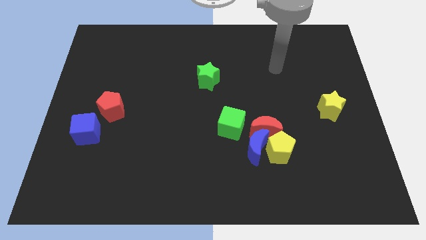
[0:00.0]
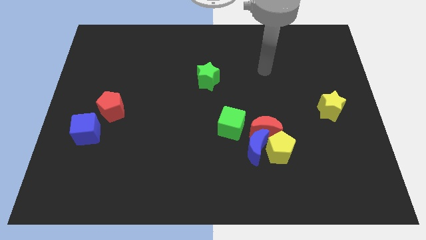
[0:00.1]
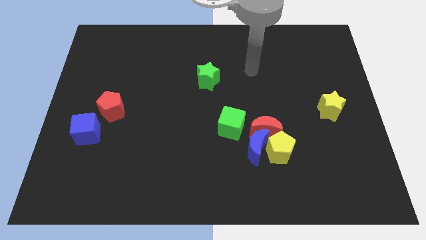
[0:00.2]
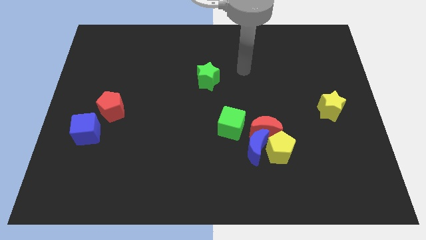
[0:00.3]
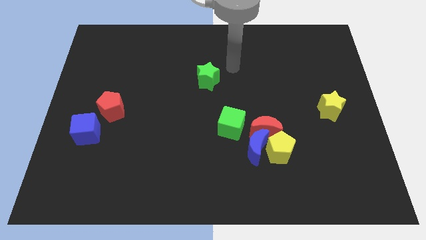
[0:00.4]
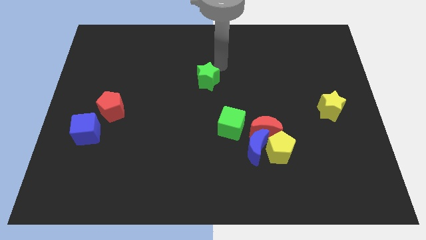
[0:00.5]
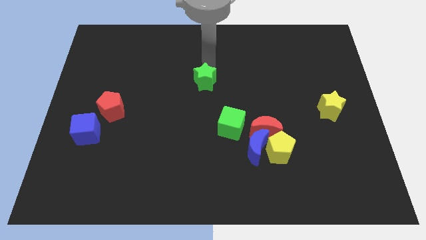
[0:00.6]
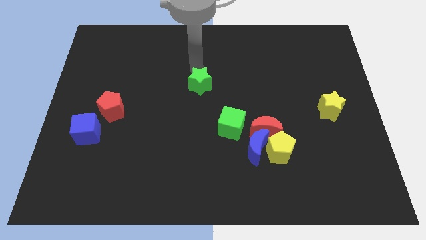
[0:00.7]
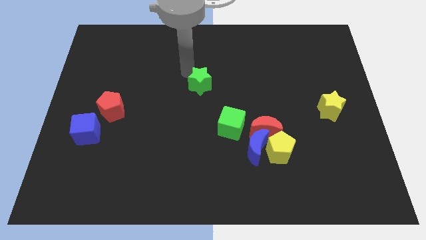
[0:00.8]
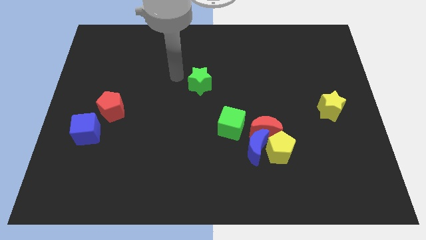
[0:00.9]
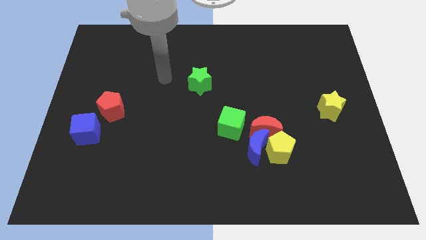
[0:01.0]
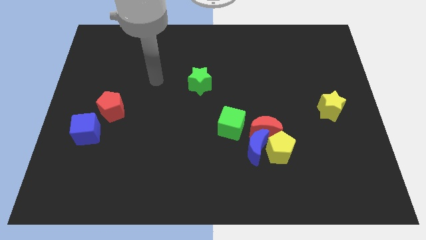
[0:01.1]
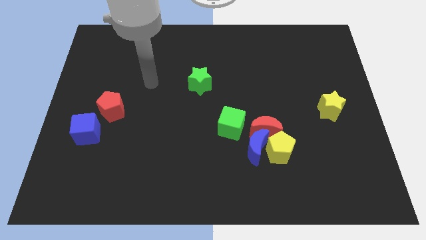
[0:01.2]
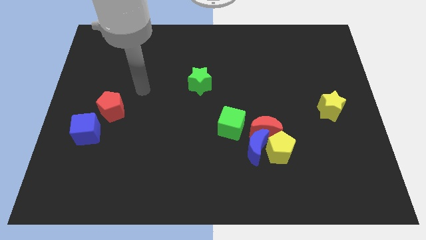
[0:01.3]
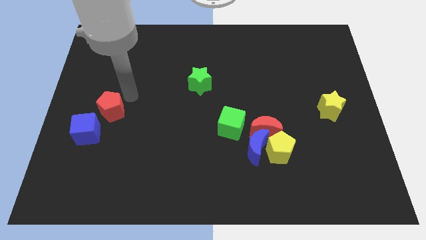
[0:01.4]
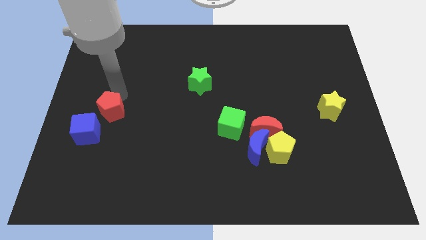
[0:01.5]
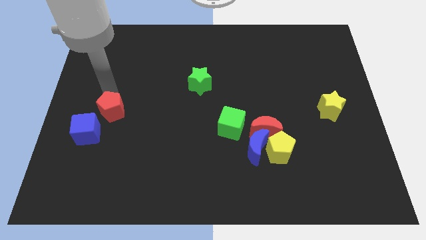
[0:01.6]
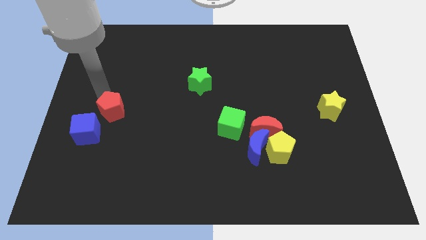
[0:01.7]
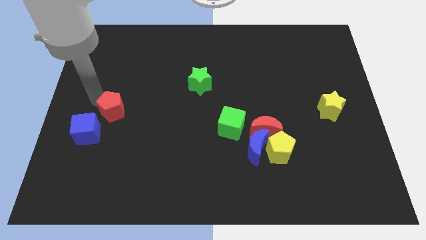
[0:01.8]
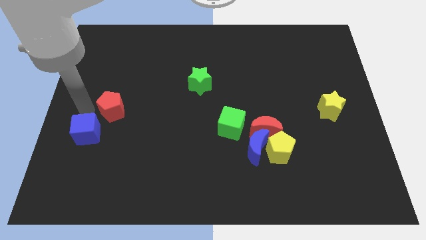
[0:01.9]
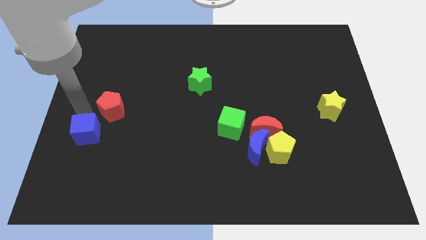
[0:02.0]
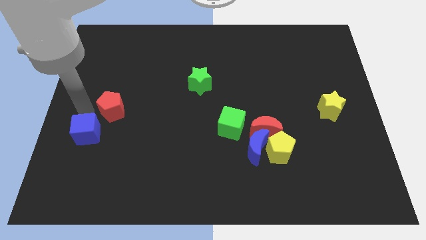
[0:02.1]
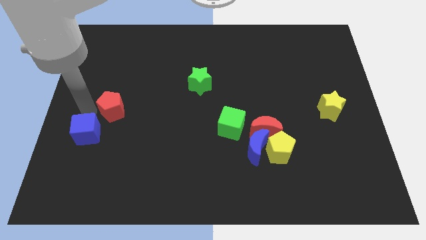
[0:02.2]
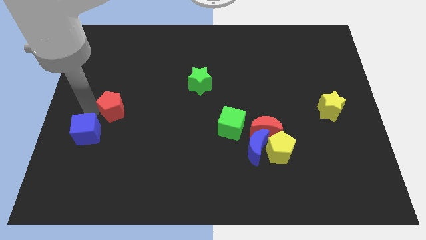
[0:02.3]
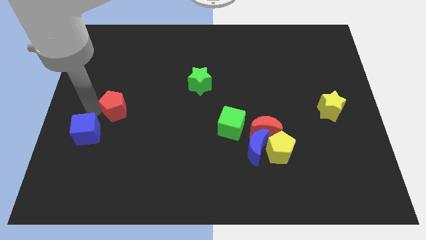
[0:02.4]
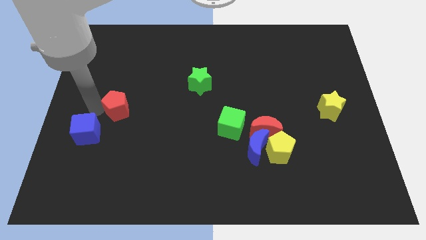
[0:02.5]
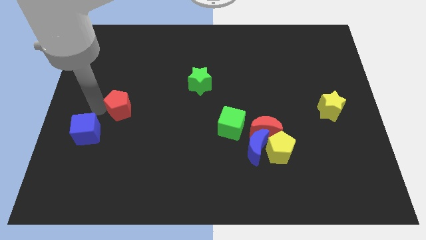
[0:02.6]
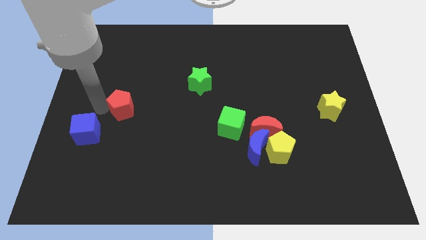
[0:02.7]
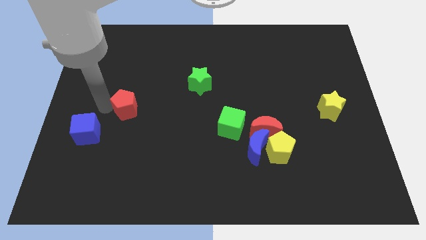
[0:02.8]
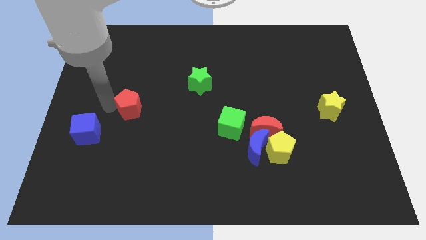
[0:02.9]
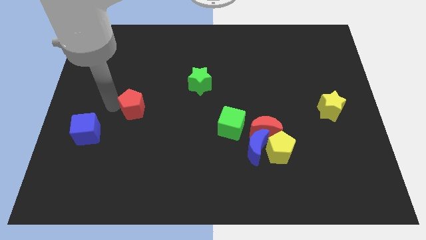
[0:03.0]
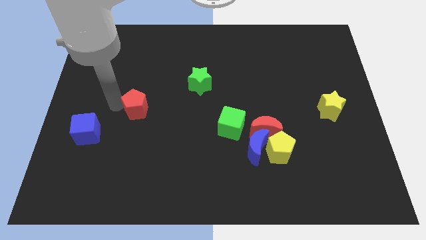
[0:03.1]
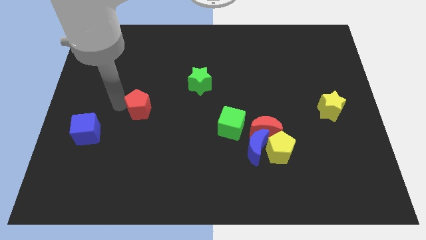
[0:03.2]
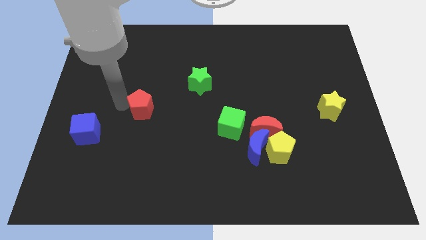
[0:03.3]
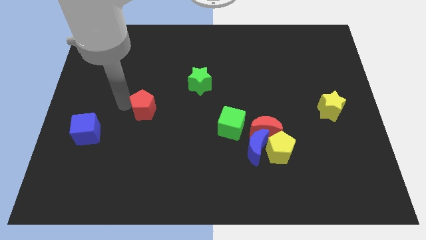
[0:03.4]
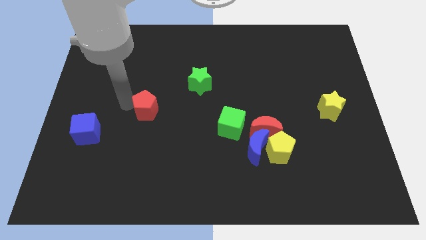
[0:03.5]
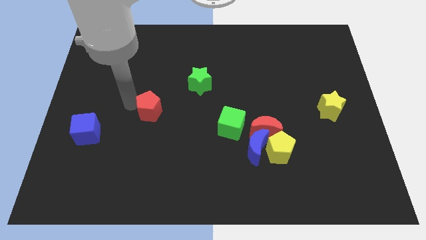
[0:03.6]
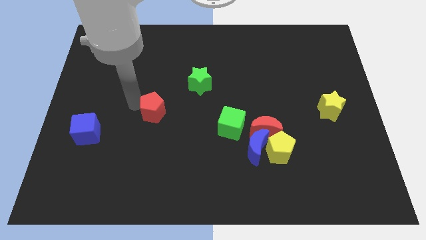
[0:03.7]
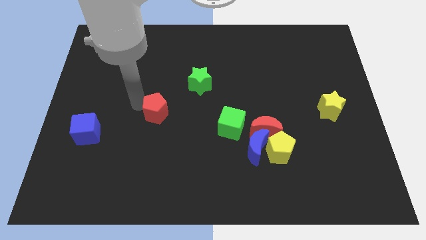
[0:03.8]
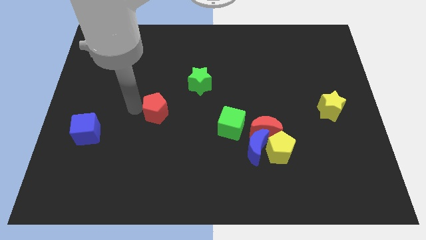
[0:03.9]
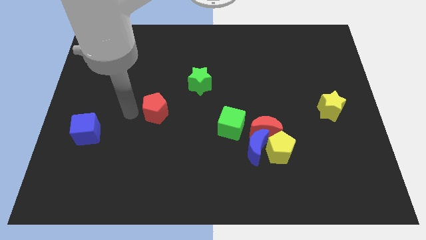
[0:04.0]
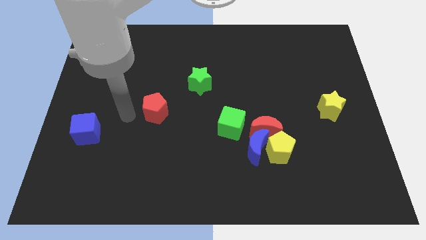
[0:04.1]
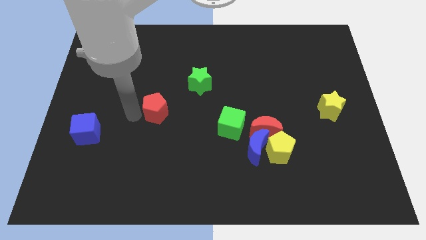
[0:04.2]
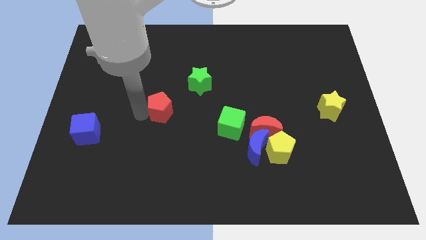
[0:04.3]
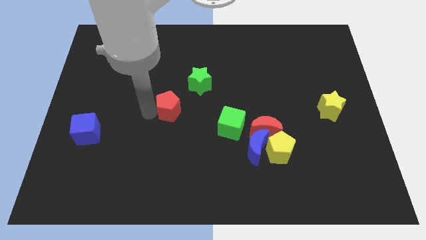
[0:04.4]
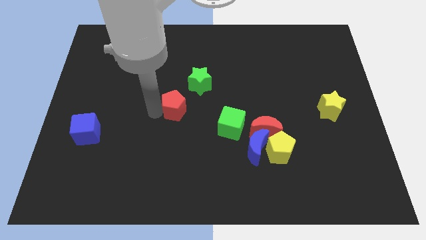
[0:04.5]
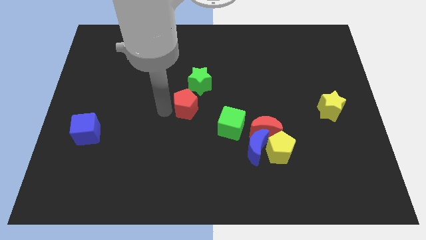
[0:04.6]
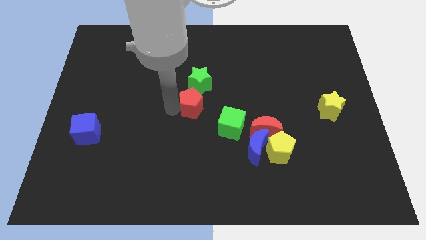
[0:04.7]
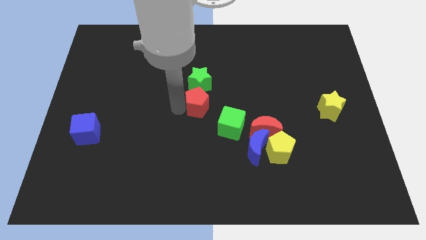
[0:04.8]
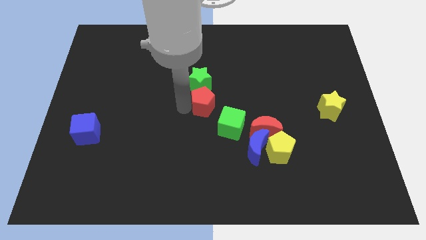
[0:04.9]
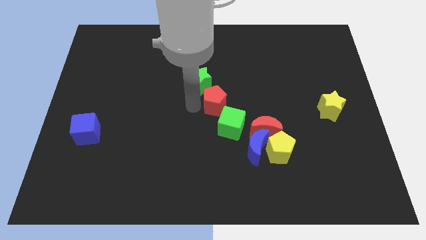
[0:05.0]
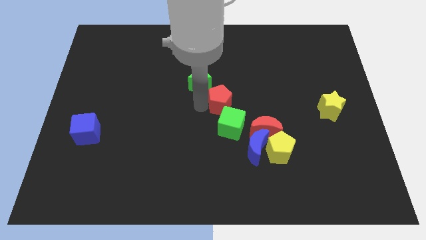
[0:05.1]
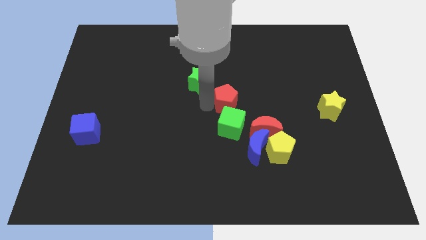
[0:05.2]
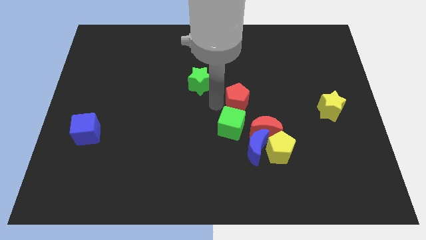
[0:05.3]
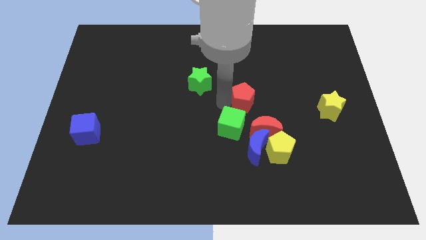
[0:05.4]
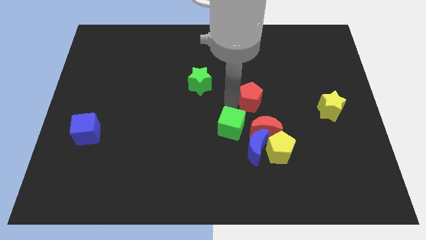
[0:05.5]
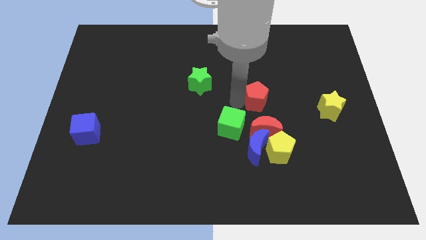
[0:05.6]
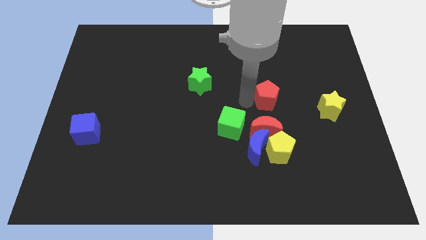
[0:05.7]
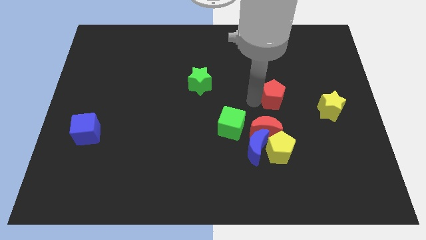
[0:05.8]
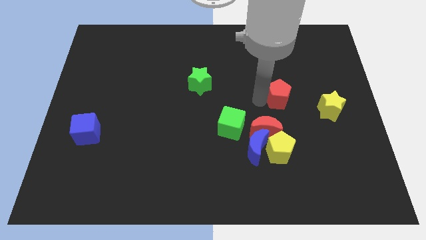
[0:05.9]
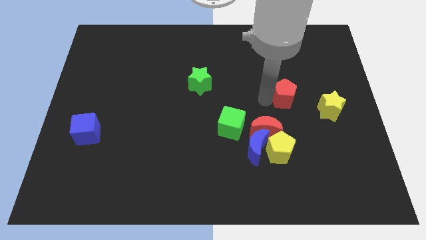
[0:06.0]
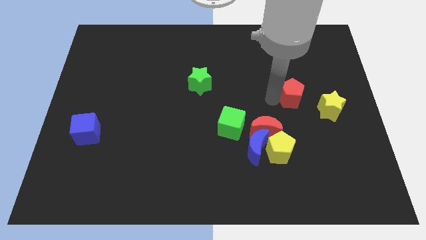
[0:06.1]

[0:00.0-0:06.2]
slide the red pentagon to the top left of the yellow star

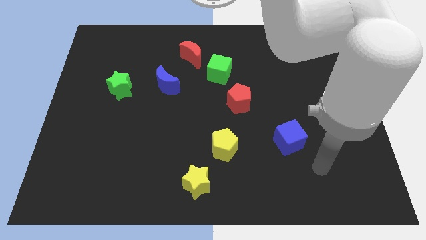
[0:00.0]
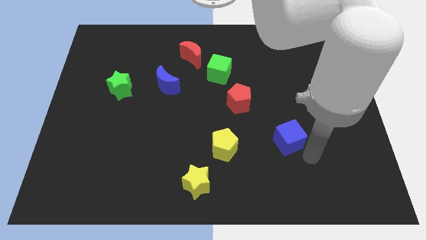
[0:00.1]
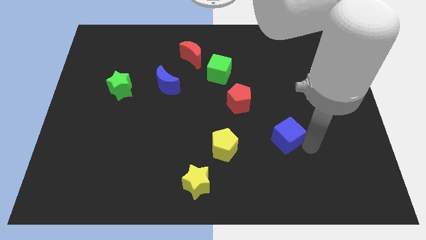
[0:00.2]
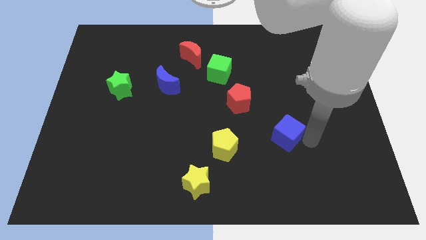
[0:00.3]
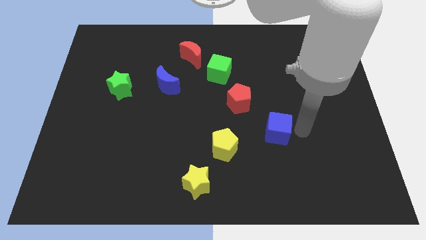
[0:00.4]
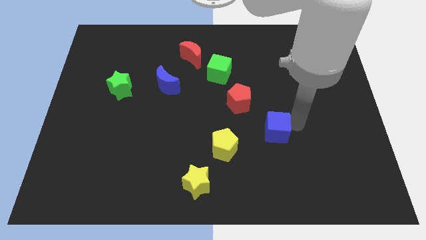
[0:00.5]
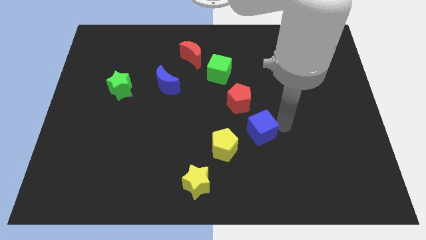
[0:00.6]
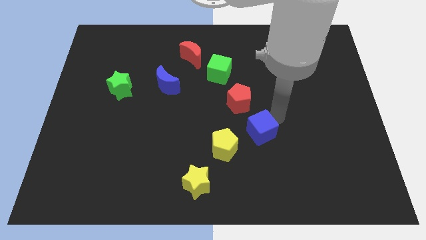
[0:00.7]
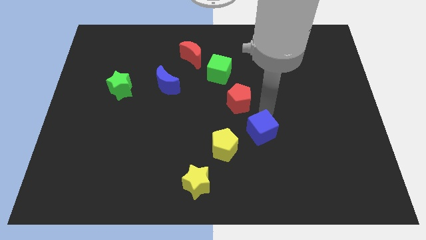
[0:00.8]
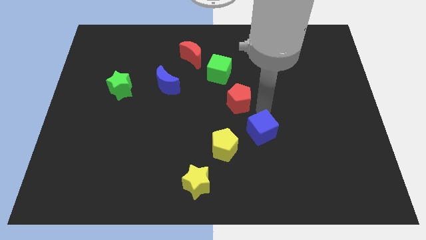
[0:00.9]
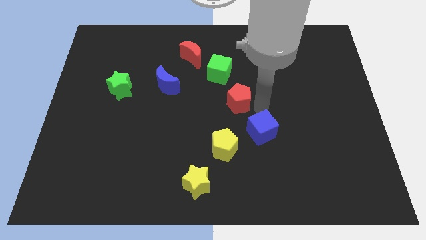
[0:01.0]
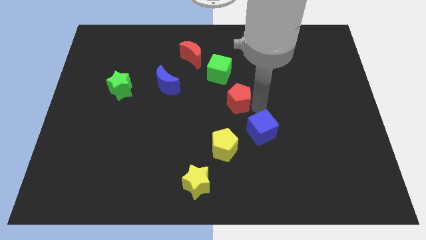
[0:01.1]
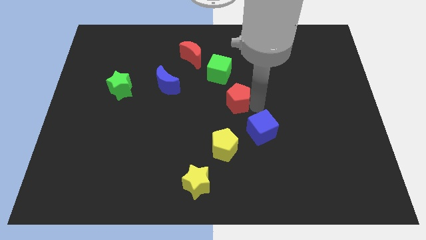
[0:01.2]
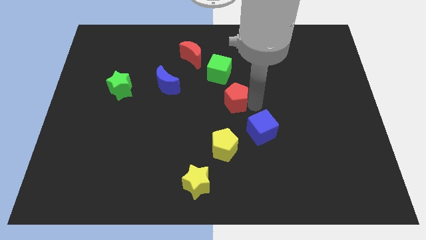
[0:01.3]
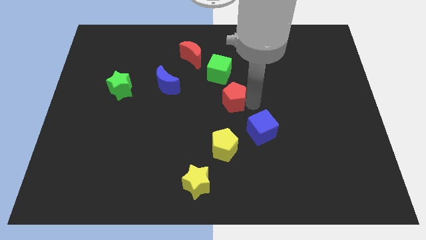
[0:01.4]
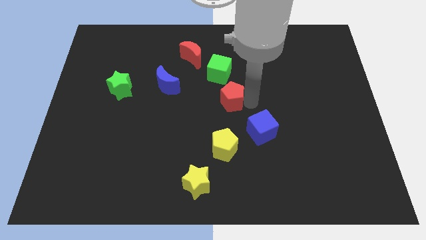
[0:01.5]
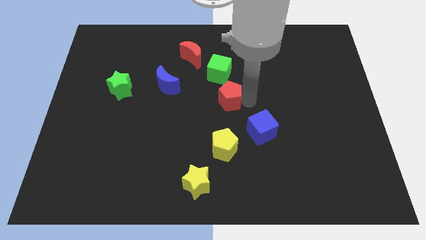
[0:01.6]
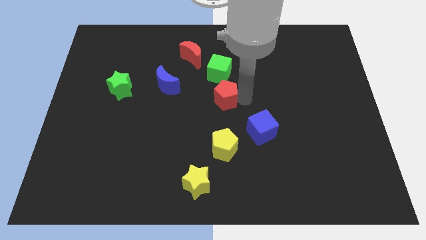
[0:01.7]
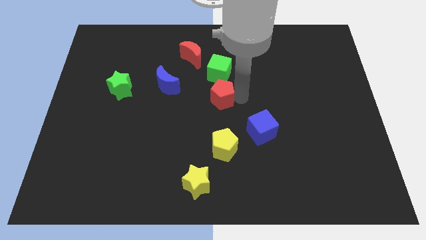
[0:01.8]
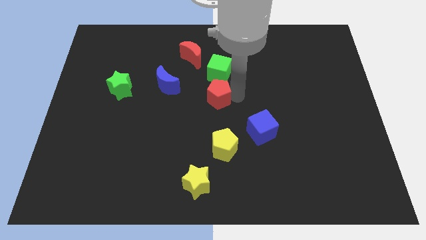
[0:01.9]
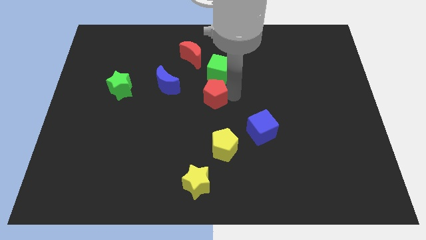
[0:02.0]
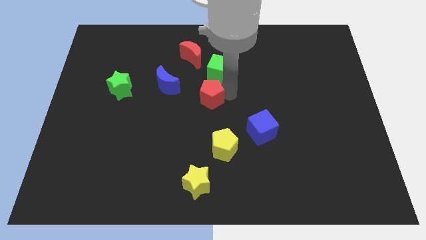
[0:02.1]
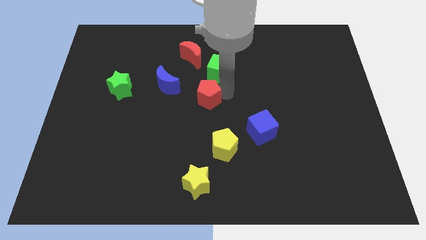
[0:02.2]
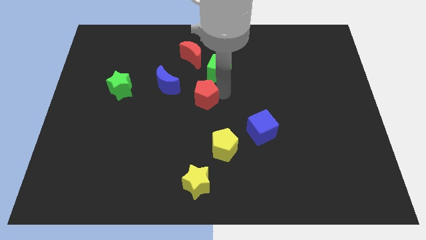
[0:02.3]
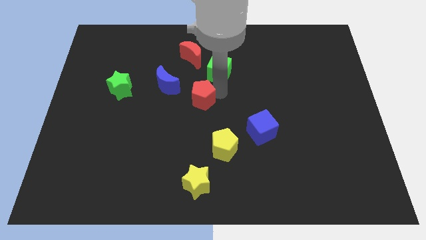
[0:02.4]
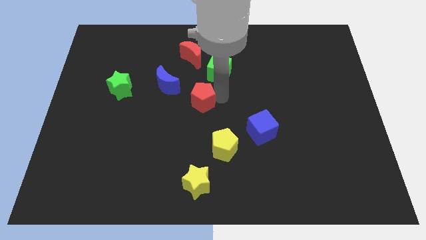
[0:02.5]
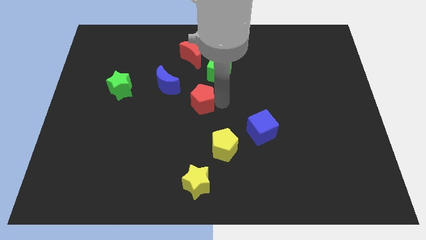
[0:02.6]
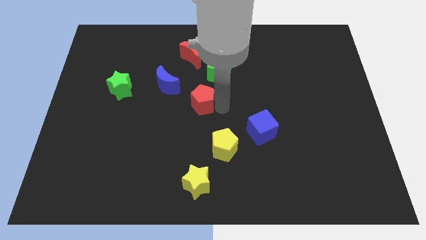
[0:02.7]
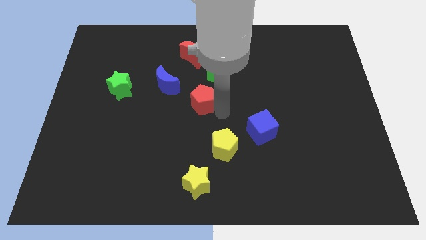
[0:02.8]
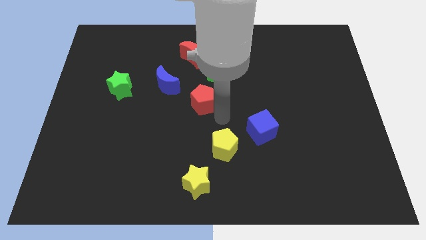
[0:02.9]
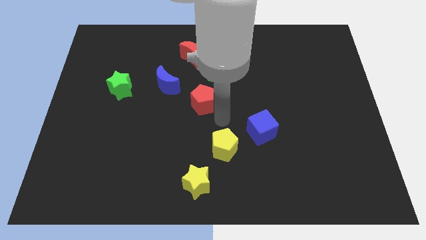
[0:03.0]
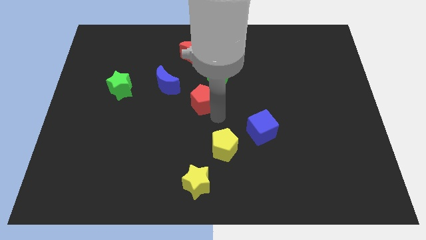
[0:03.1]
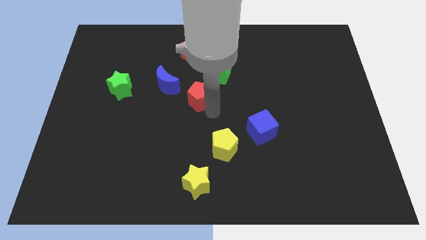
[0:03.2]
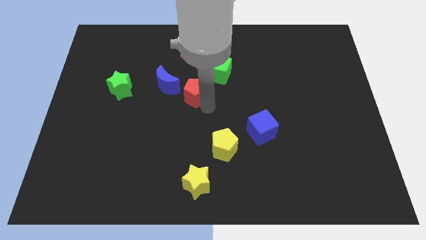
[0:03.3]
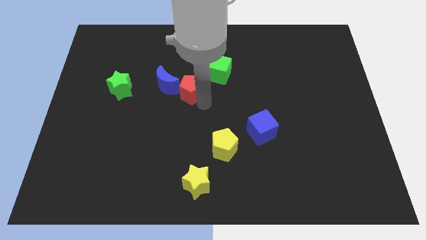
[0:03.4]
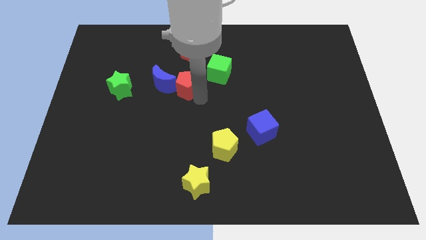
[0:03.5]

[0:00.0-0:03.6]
slide the red pentagon to the right side of the green star
